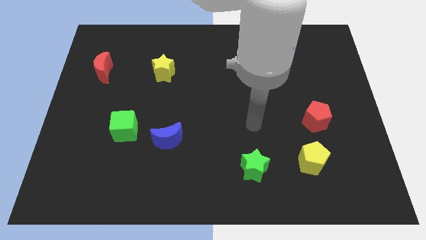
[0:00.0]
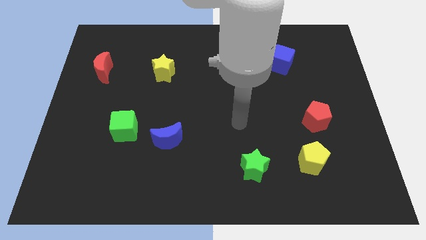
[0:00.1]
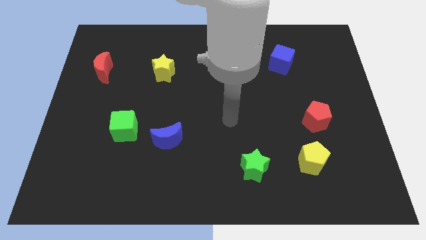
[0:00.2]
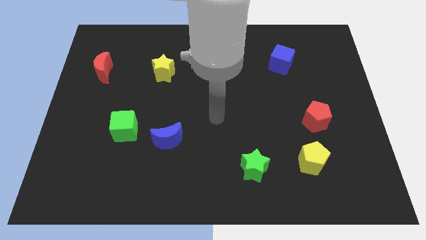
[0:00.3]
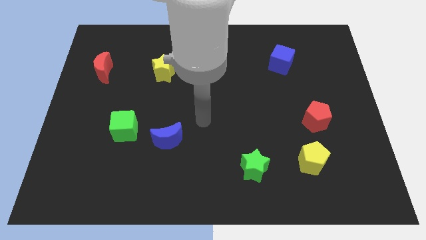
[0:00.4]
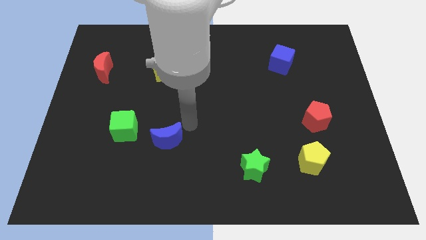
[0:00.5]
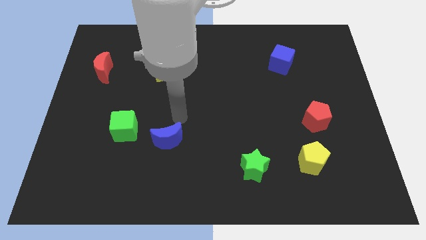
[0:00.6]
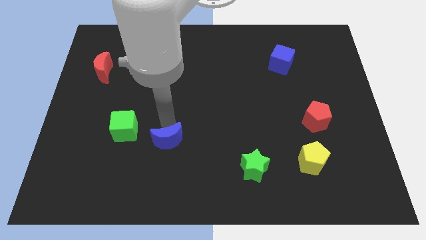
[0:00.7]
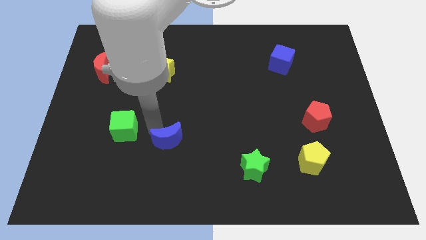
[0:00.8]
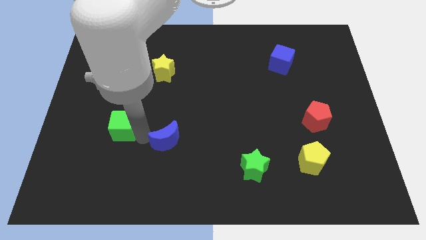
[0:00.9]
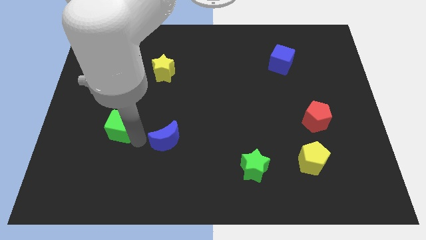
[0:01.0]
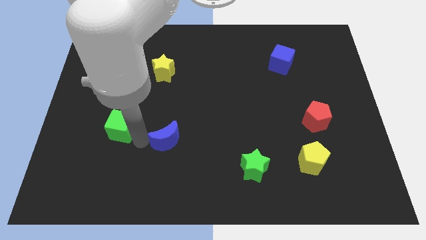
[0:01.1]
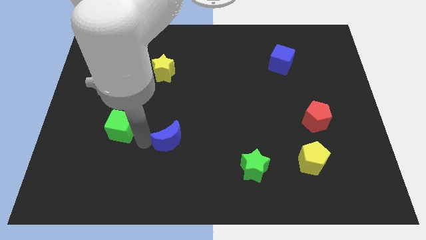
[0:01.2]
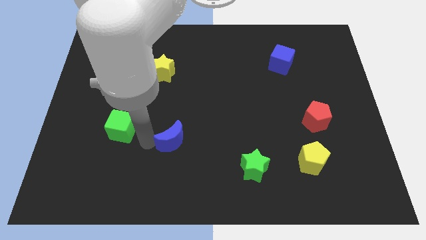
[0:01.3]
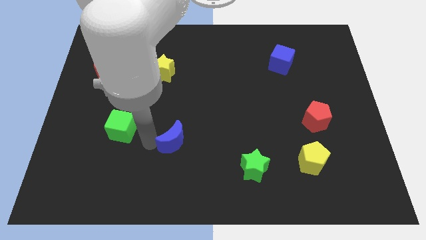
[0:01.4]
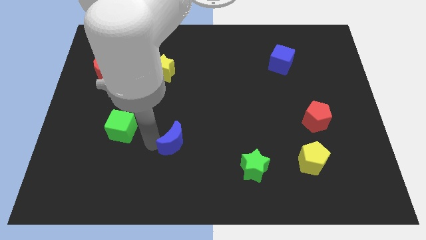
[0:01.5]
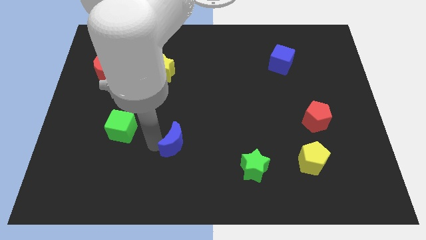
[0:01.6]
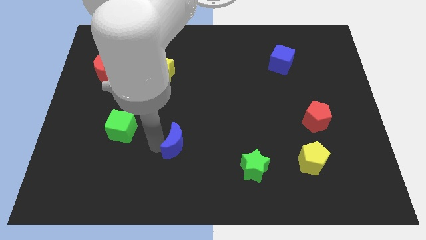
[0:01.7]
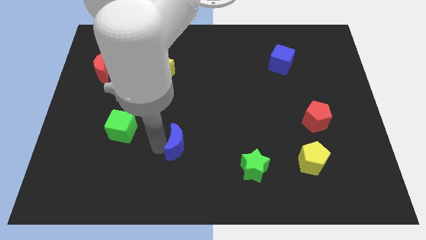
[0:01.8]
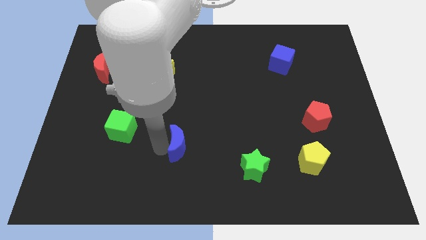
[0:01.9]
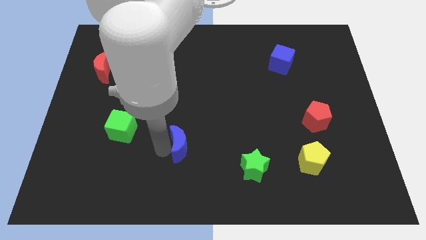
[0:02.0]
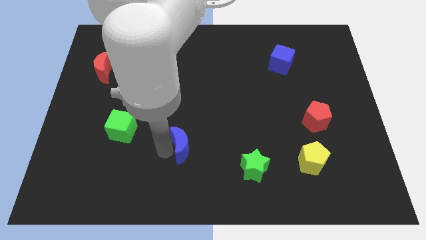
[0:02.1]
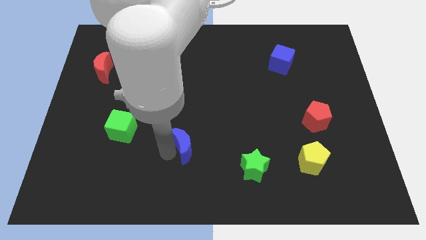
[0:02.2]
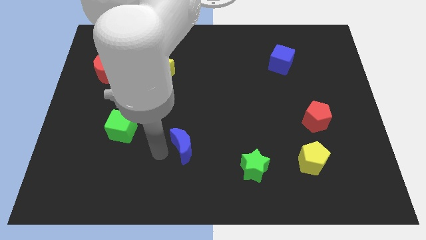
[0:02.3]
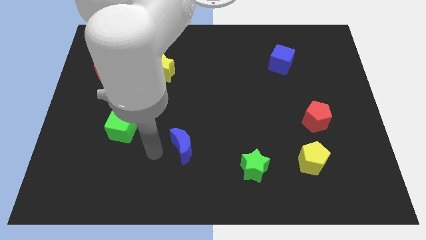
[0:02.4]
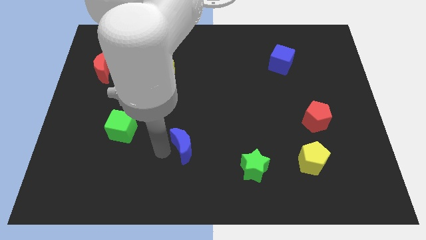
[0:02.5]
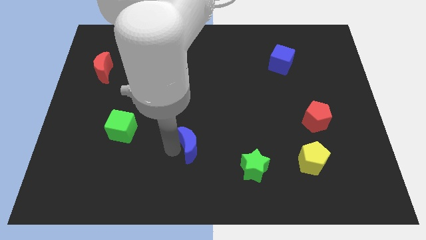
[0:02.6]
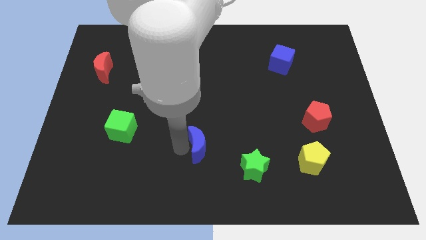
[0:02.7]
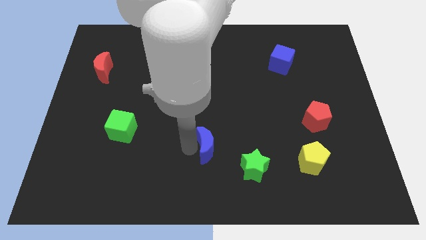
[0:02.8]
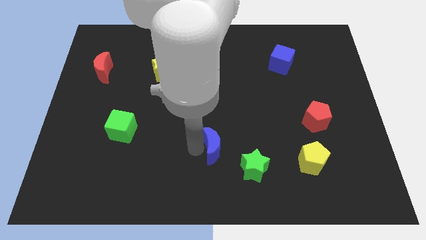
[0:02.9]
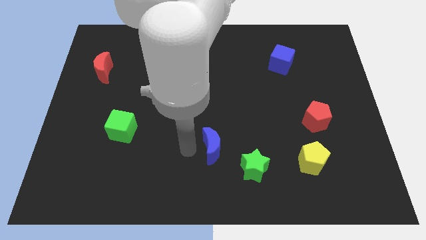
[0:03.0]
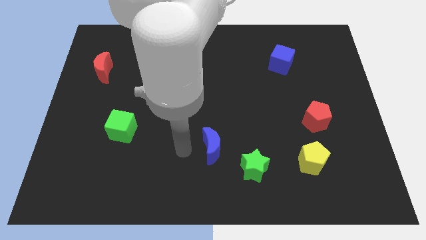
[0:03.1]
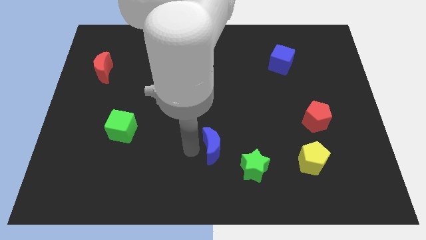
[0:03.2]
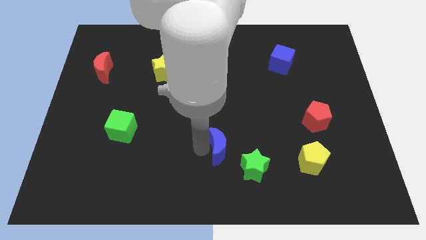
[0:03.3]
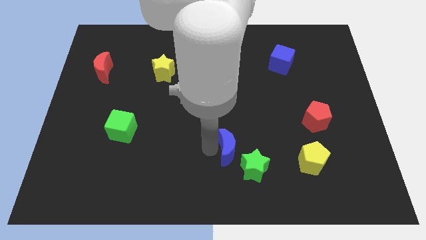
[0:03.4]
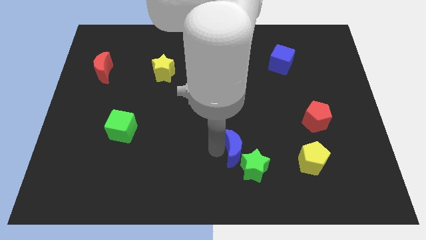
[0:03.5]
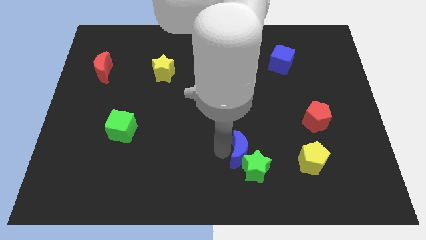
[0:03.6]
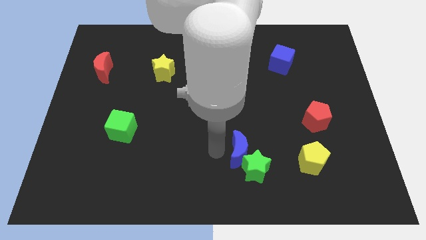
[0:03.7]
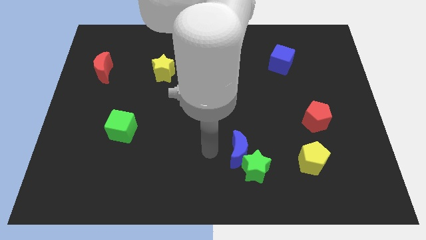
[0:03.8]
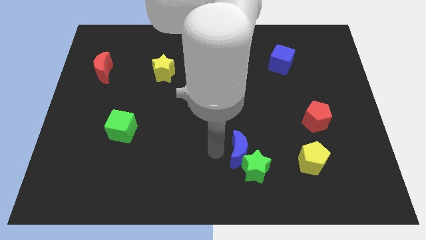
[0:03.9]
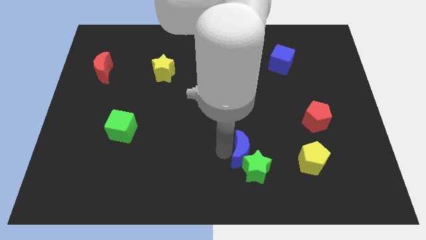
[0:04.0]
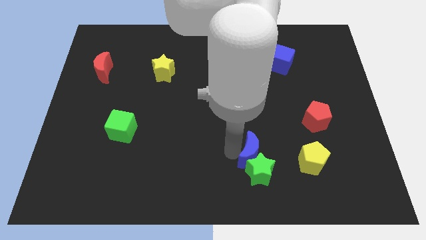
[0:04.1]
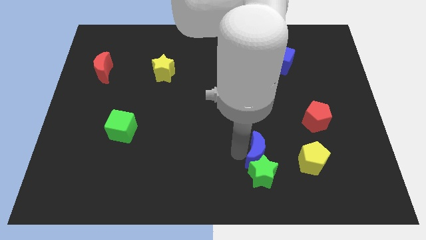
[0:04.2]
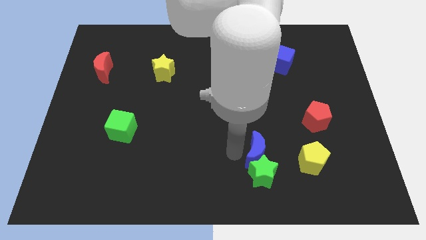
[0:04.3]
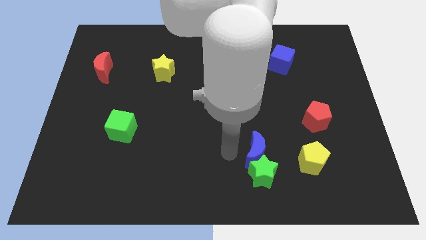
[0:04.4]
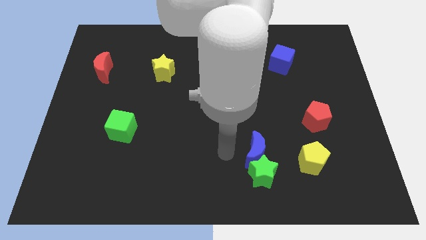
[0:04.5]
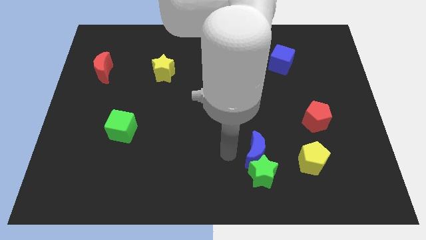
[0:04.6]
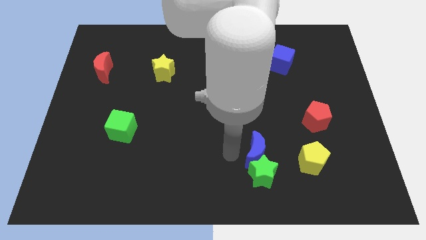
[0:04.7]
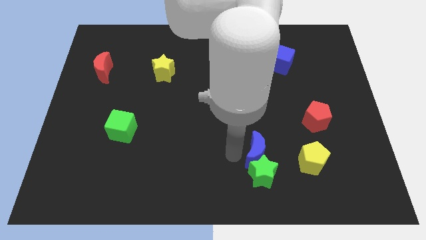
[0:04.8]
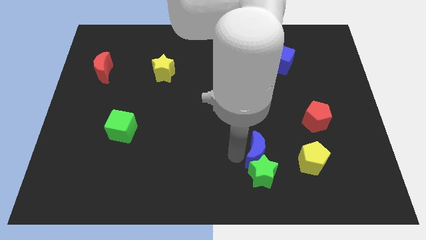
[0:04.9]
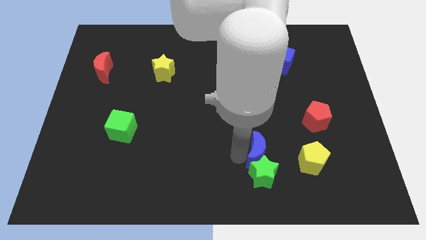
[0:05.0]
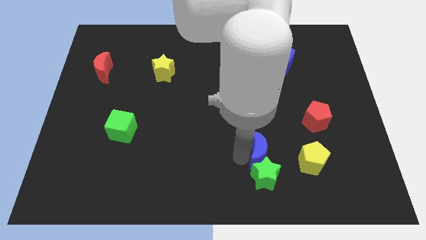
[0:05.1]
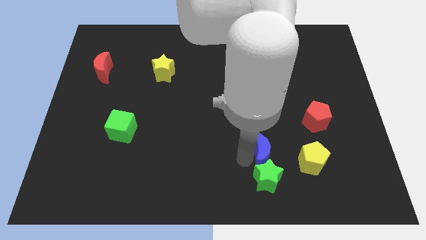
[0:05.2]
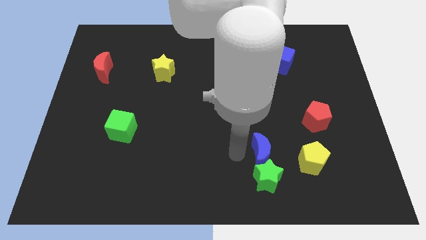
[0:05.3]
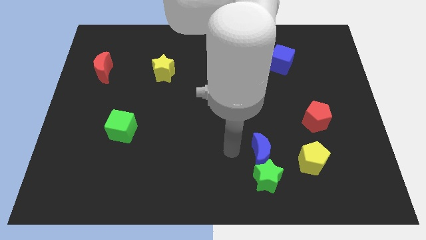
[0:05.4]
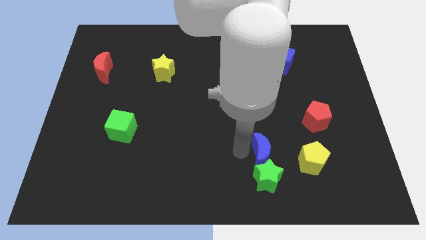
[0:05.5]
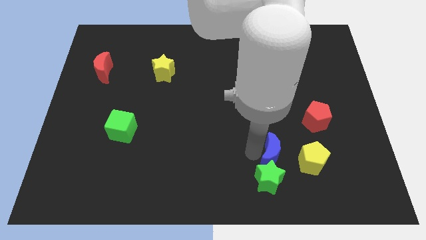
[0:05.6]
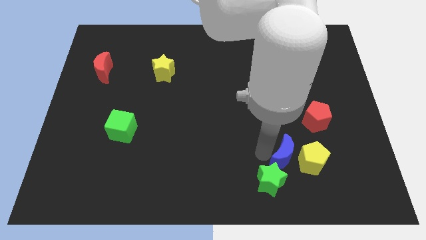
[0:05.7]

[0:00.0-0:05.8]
push the blue moon close to the yellow pentagon
